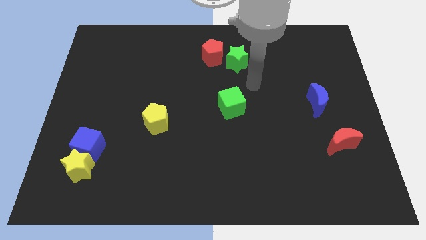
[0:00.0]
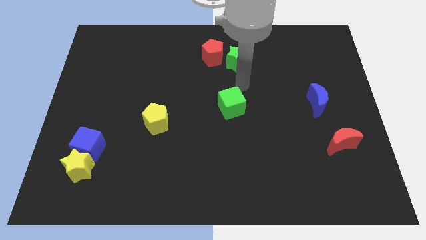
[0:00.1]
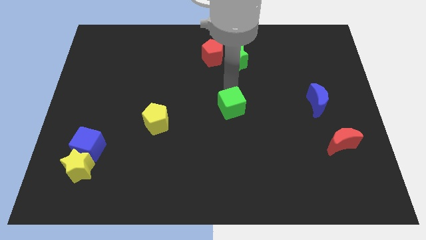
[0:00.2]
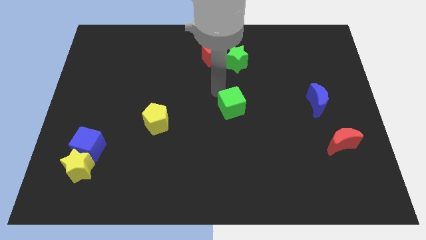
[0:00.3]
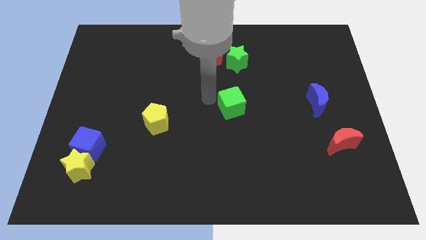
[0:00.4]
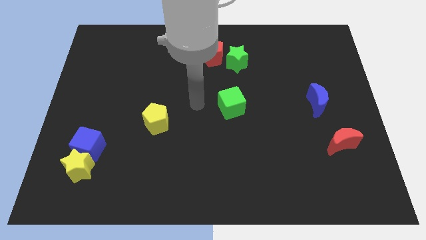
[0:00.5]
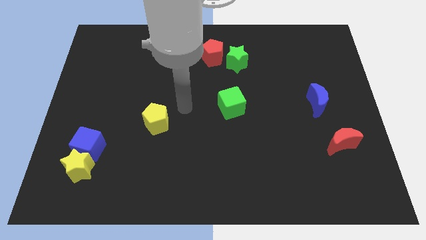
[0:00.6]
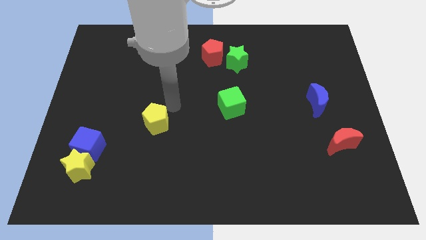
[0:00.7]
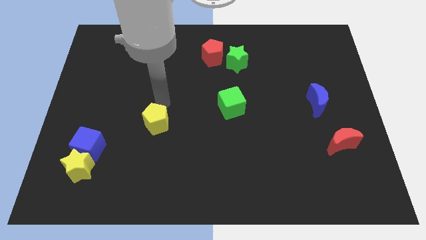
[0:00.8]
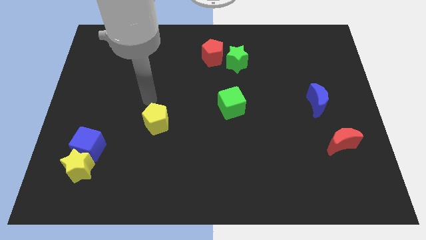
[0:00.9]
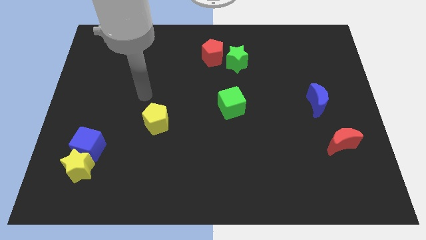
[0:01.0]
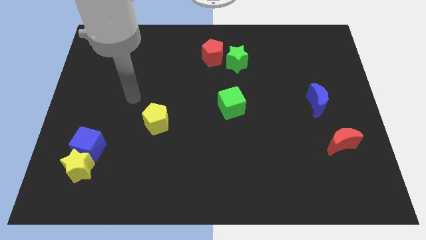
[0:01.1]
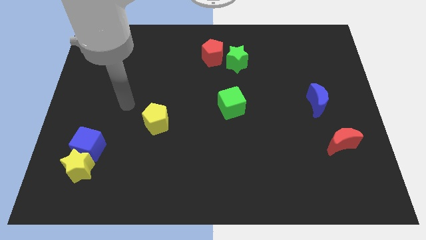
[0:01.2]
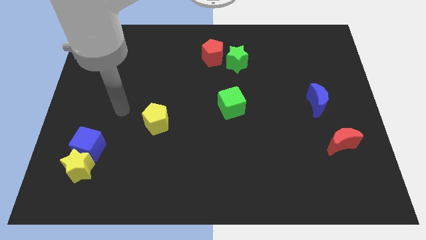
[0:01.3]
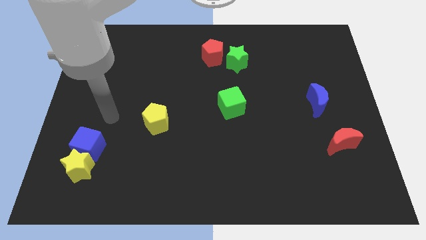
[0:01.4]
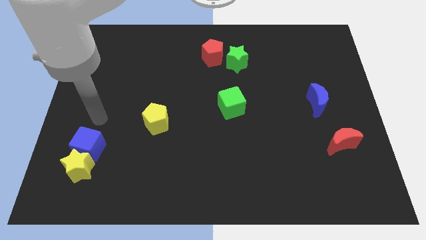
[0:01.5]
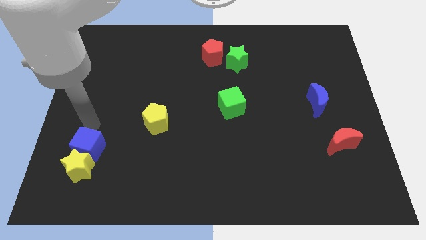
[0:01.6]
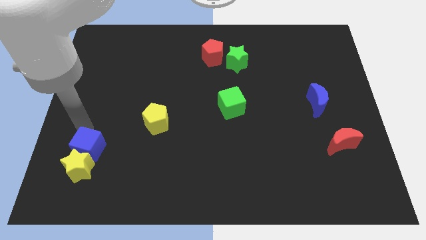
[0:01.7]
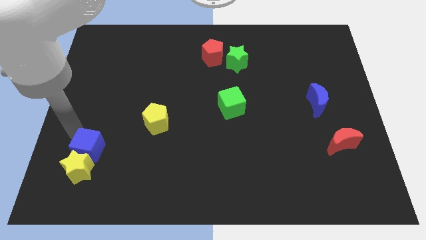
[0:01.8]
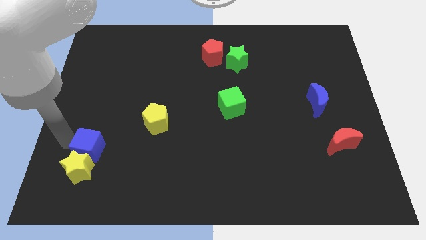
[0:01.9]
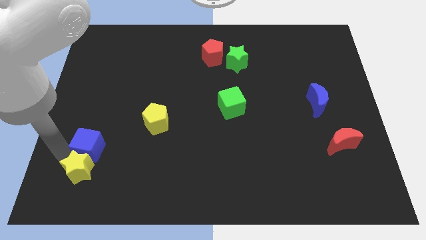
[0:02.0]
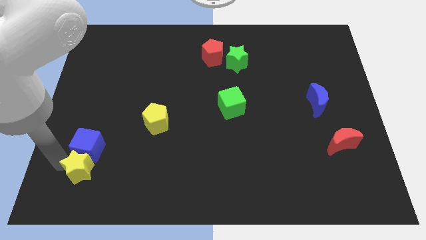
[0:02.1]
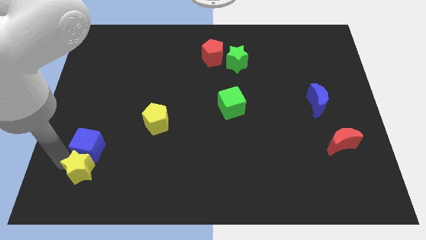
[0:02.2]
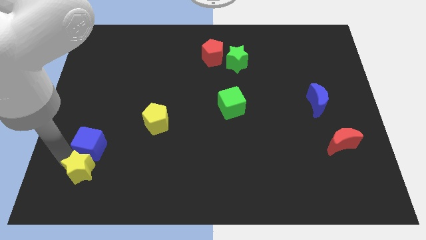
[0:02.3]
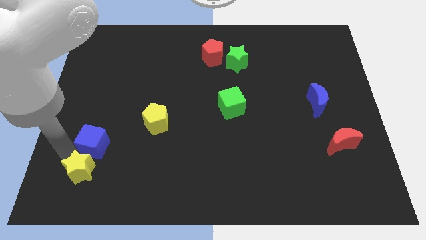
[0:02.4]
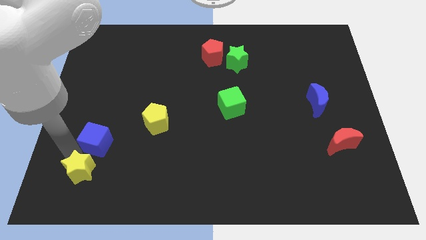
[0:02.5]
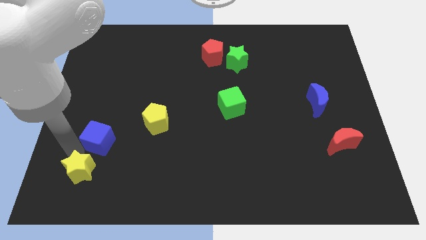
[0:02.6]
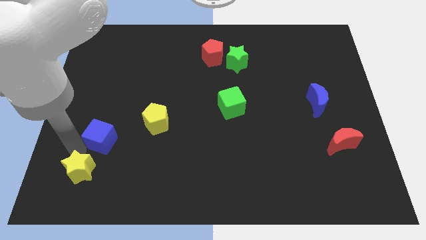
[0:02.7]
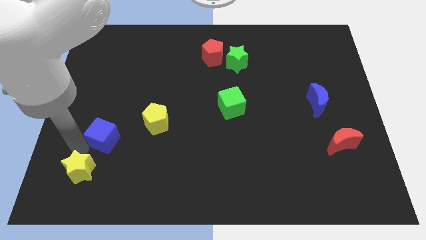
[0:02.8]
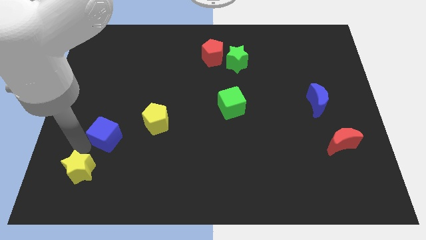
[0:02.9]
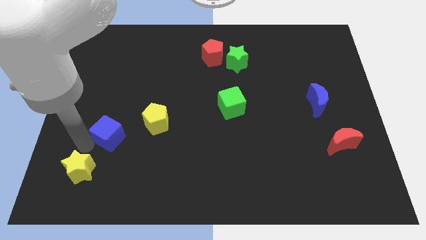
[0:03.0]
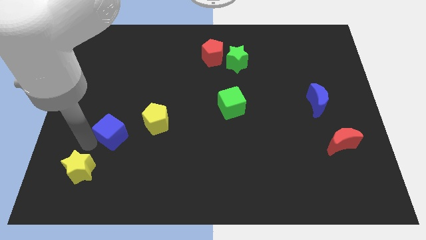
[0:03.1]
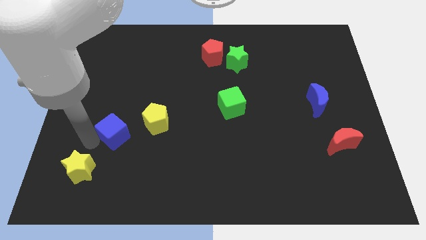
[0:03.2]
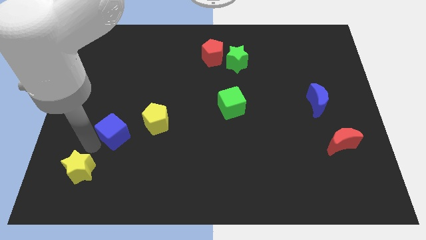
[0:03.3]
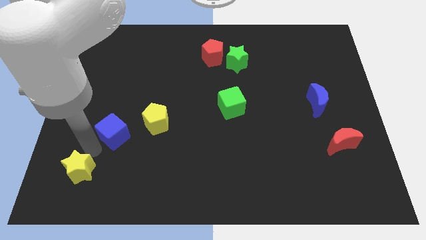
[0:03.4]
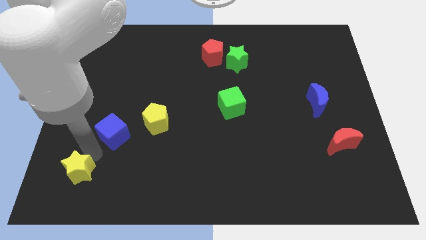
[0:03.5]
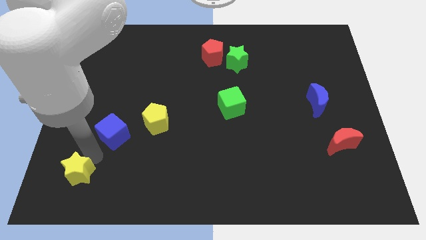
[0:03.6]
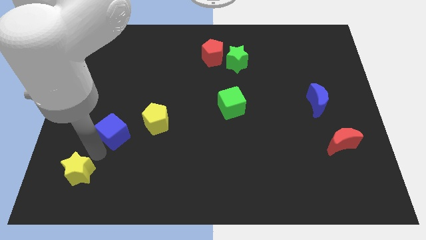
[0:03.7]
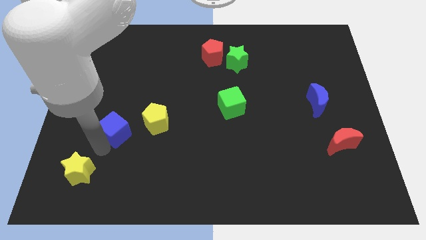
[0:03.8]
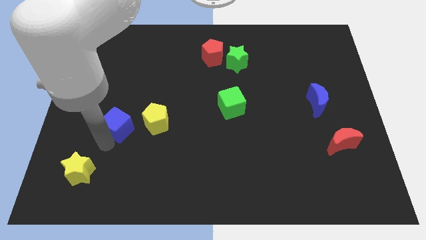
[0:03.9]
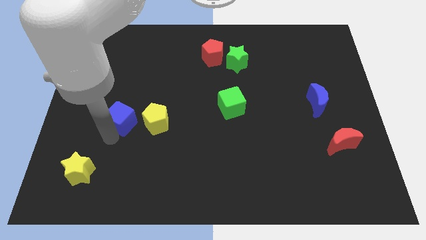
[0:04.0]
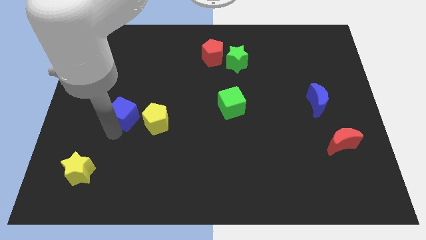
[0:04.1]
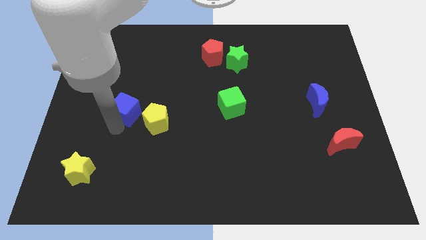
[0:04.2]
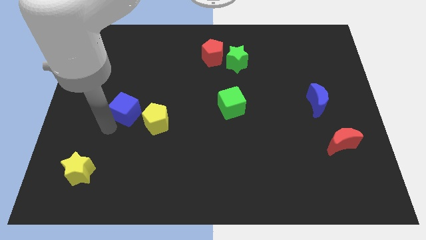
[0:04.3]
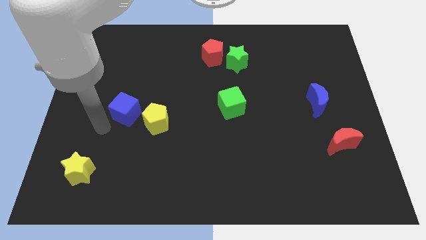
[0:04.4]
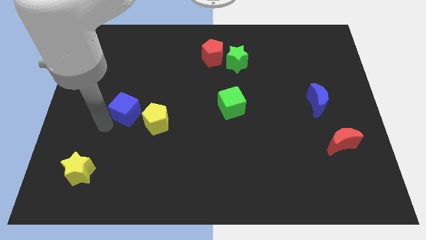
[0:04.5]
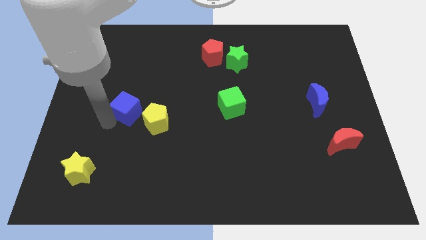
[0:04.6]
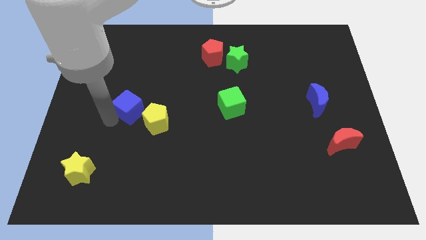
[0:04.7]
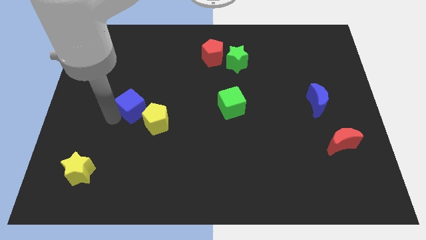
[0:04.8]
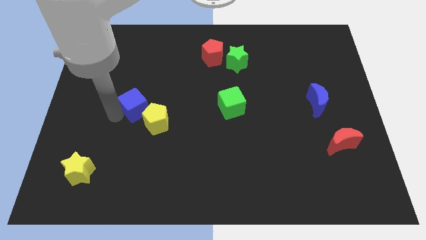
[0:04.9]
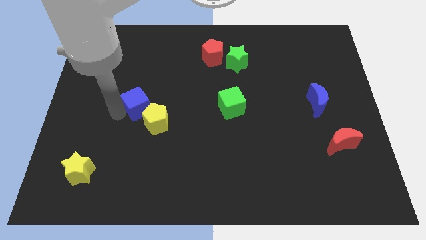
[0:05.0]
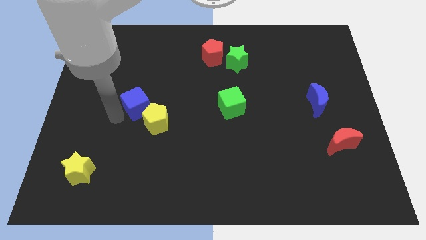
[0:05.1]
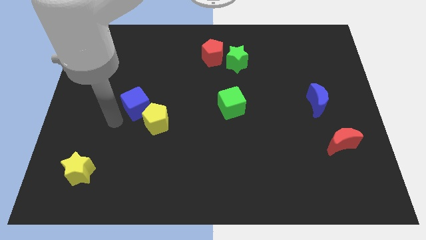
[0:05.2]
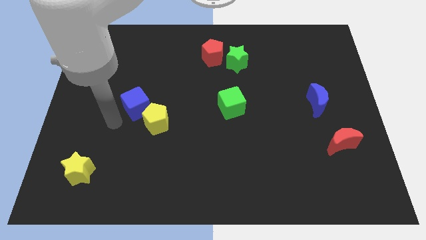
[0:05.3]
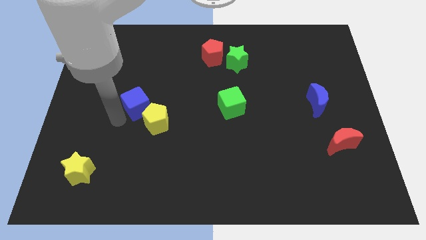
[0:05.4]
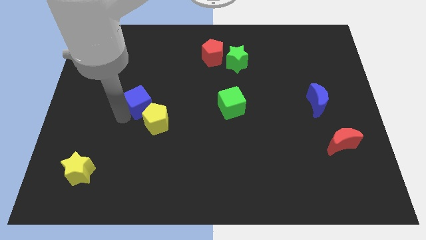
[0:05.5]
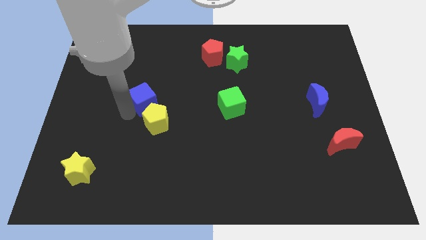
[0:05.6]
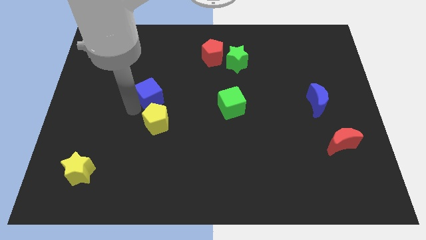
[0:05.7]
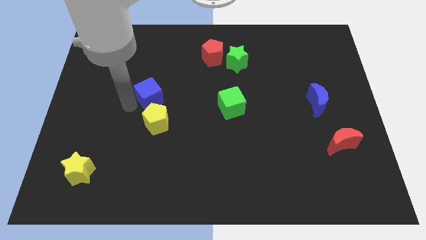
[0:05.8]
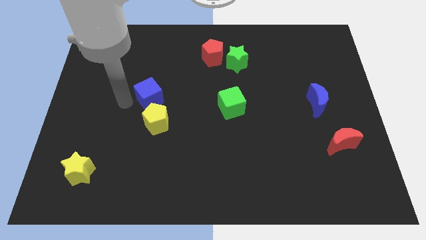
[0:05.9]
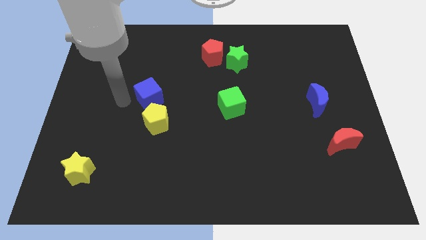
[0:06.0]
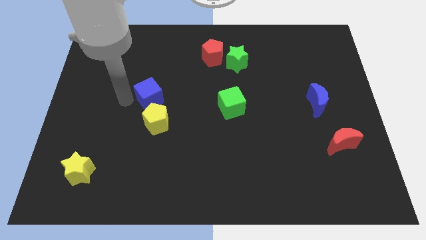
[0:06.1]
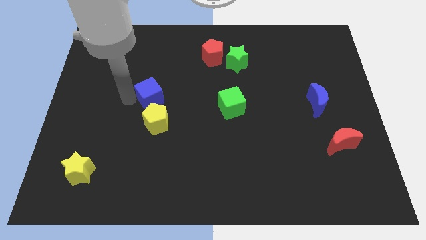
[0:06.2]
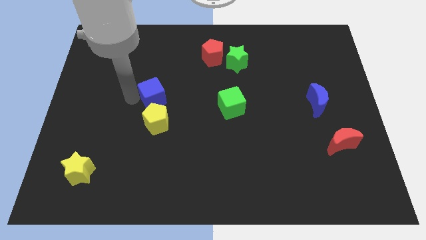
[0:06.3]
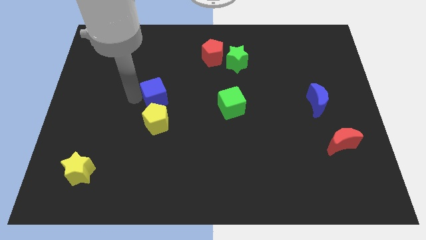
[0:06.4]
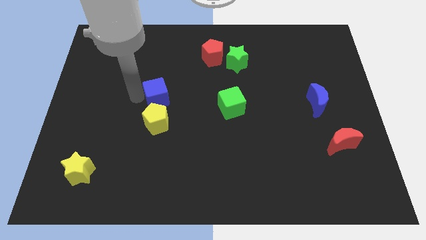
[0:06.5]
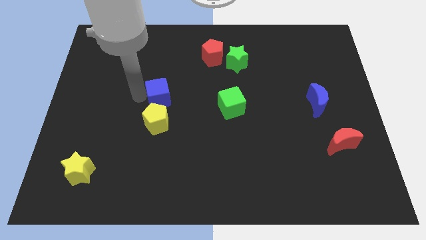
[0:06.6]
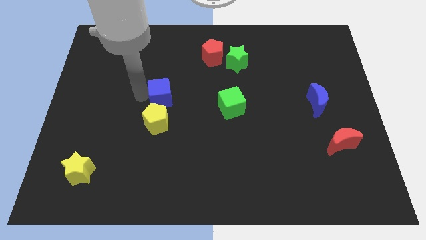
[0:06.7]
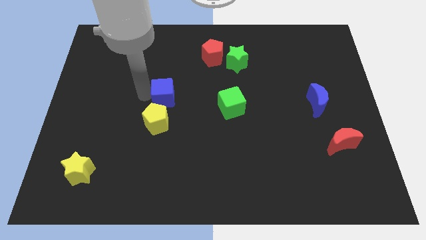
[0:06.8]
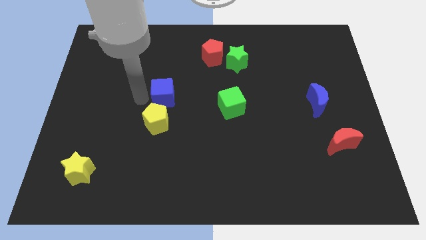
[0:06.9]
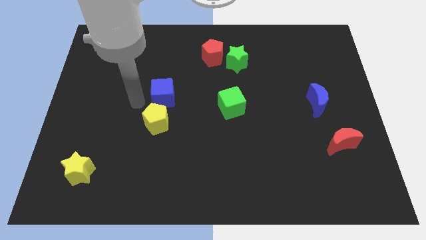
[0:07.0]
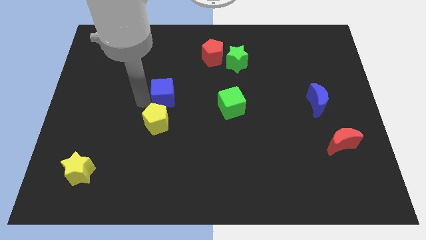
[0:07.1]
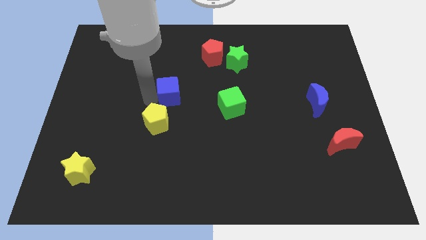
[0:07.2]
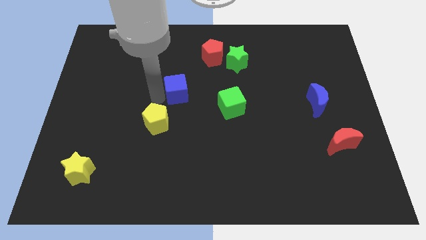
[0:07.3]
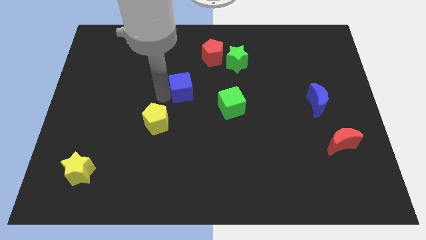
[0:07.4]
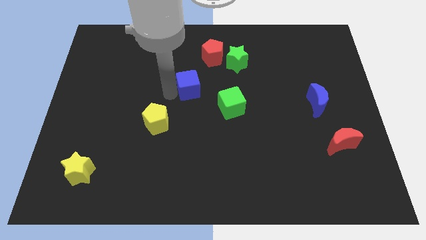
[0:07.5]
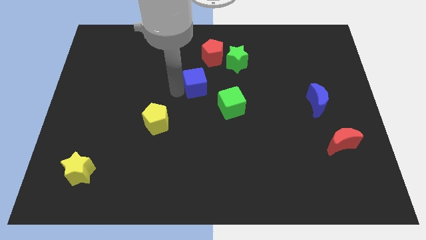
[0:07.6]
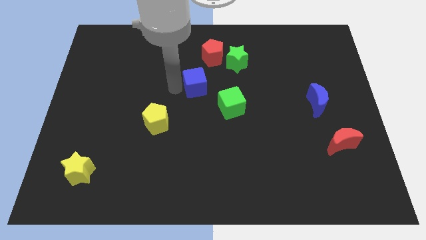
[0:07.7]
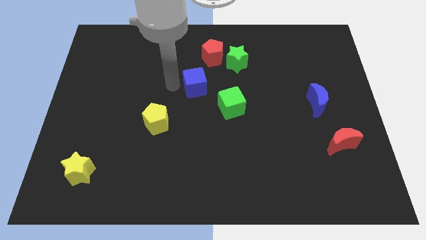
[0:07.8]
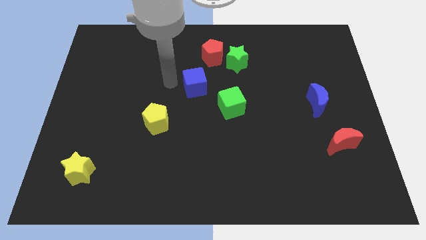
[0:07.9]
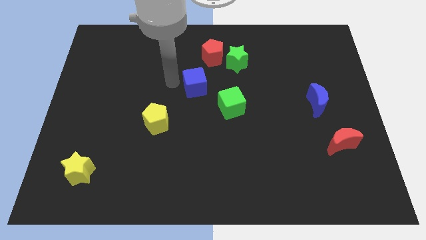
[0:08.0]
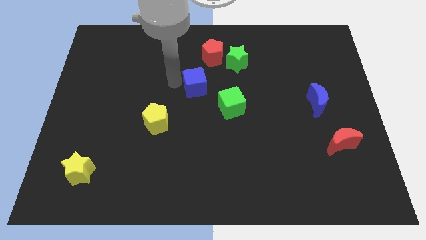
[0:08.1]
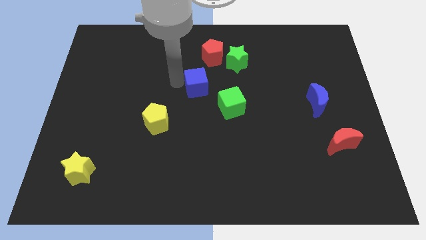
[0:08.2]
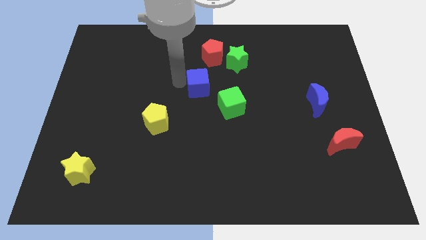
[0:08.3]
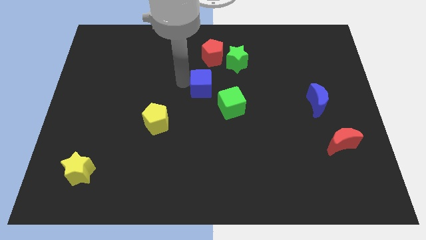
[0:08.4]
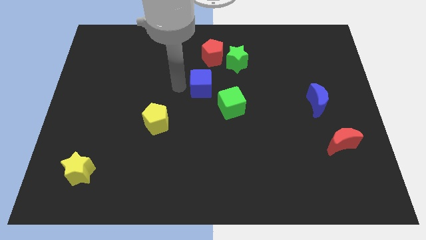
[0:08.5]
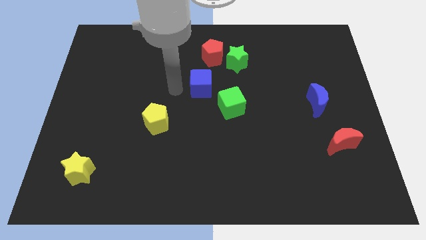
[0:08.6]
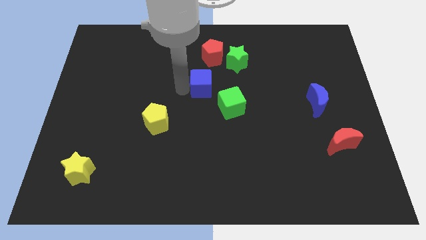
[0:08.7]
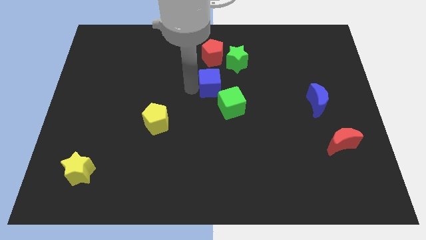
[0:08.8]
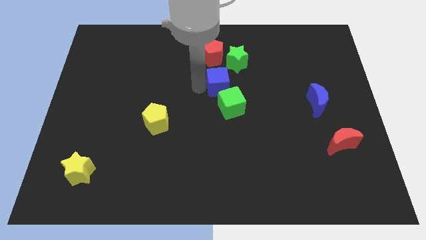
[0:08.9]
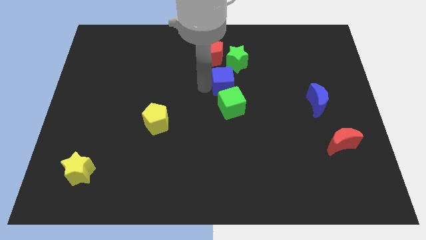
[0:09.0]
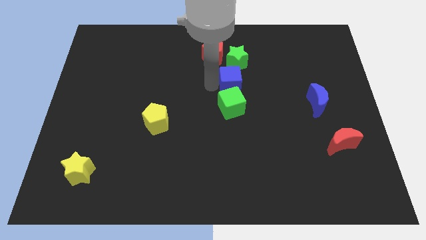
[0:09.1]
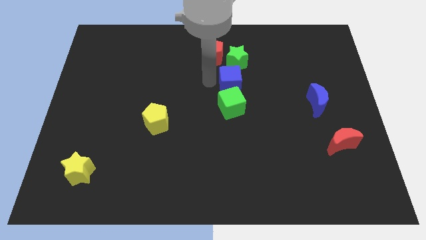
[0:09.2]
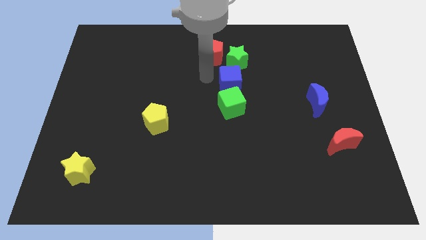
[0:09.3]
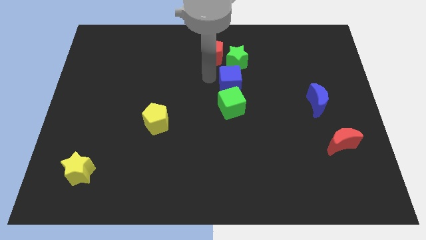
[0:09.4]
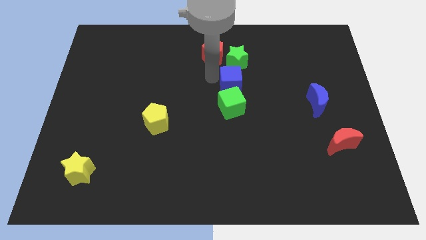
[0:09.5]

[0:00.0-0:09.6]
push the blue cube to the top right of the green cube
